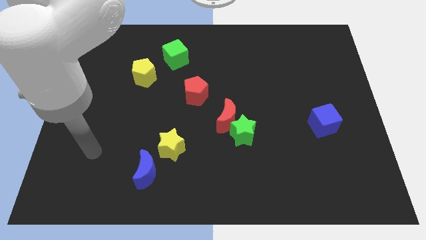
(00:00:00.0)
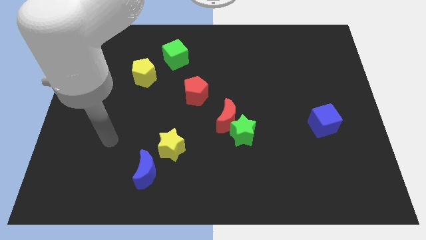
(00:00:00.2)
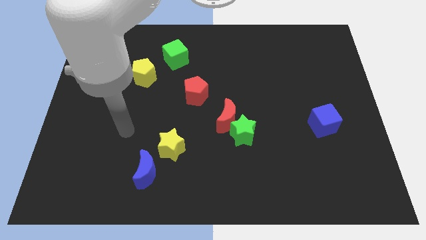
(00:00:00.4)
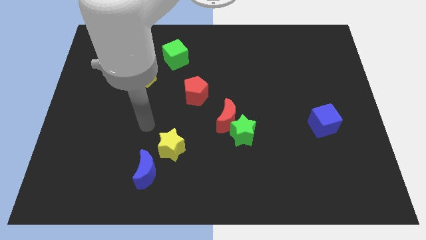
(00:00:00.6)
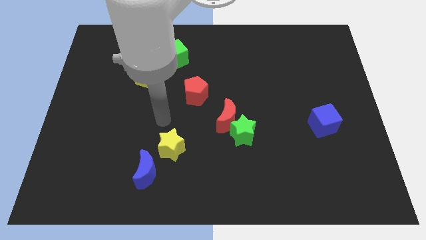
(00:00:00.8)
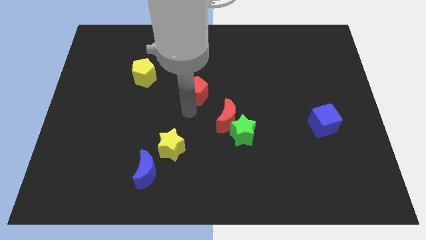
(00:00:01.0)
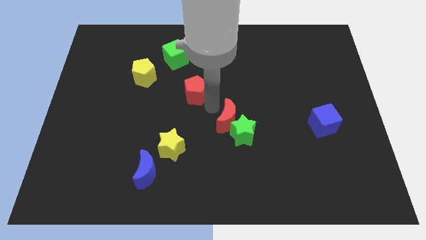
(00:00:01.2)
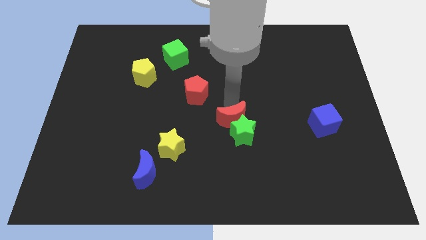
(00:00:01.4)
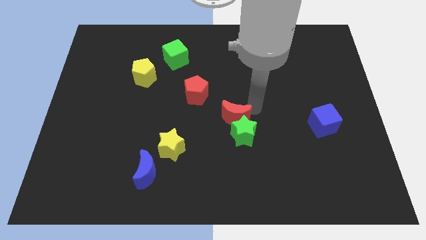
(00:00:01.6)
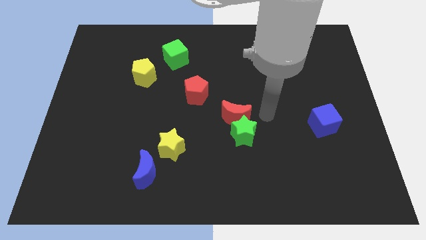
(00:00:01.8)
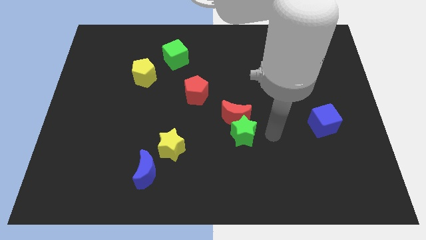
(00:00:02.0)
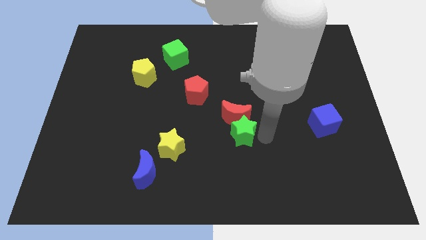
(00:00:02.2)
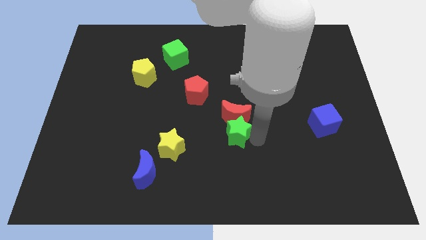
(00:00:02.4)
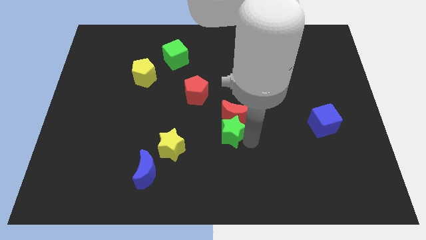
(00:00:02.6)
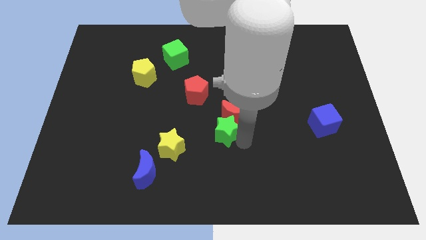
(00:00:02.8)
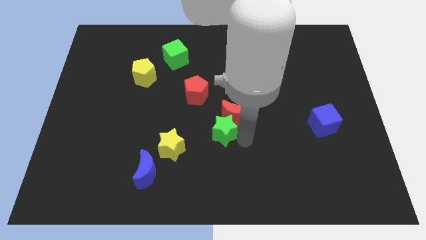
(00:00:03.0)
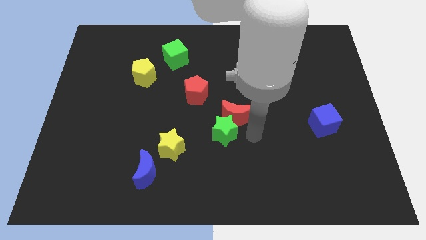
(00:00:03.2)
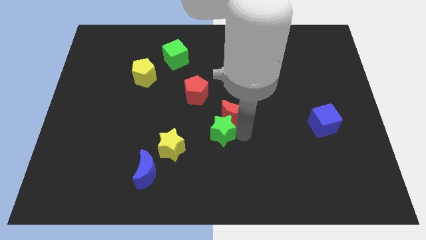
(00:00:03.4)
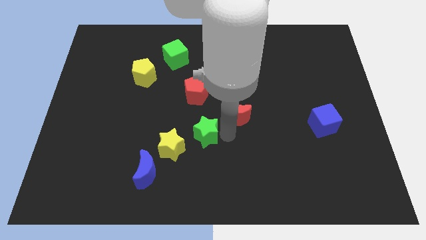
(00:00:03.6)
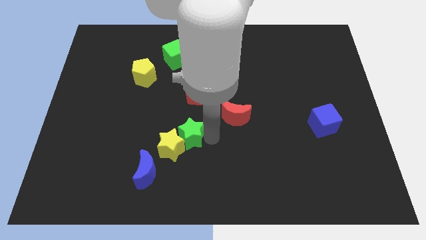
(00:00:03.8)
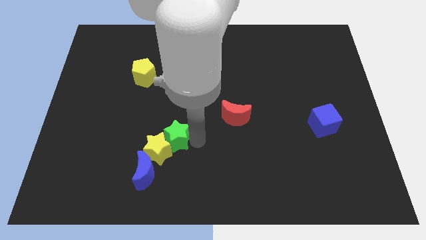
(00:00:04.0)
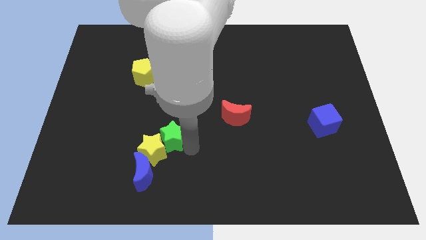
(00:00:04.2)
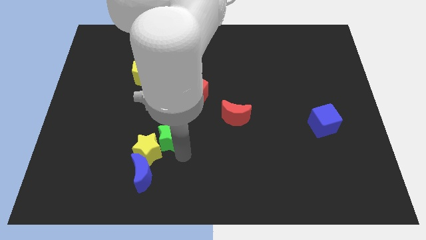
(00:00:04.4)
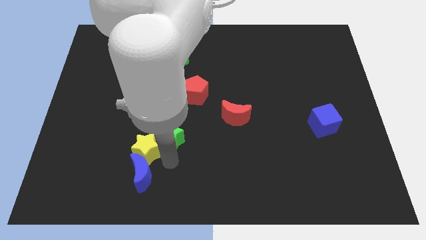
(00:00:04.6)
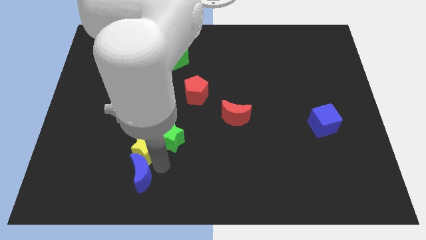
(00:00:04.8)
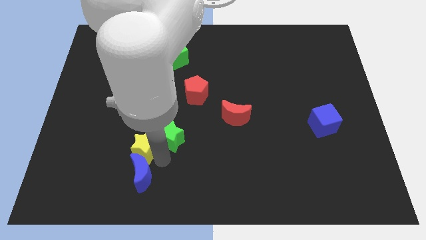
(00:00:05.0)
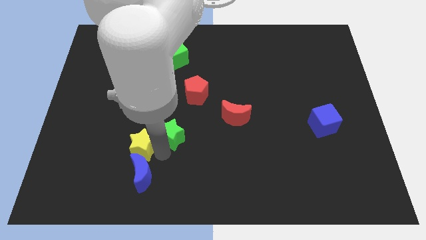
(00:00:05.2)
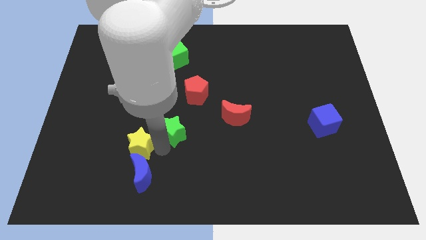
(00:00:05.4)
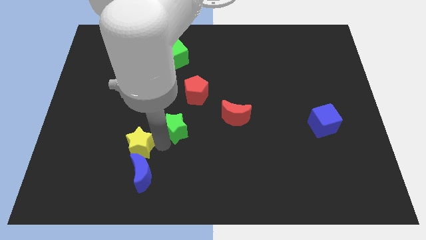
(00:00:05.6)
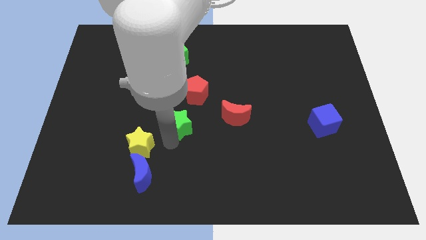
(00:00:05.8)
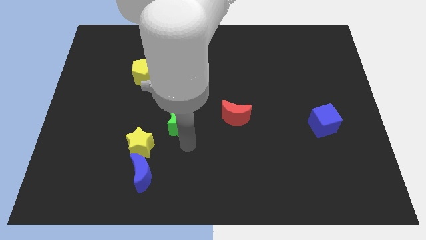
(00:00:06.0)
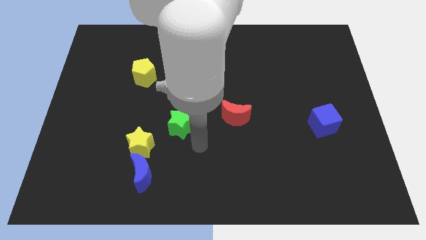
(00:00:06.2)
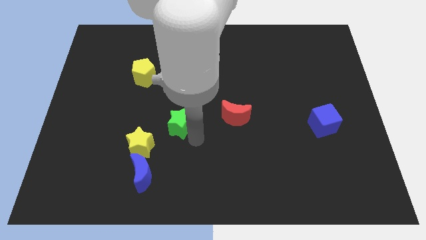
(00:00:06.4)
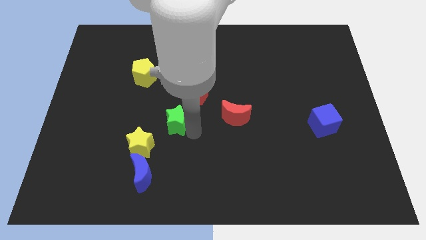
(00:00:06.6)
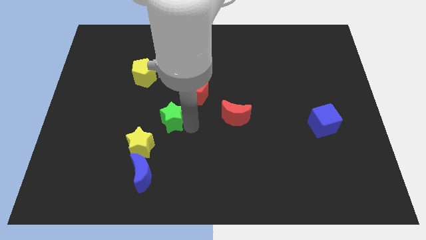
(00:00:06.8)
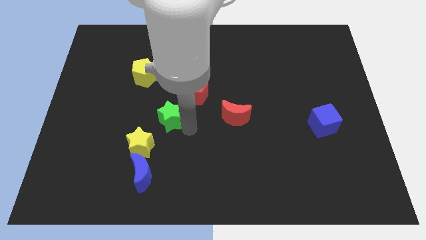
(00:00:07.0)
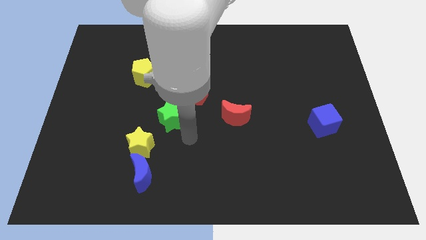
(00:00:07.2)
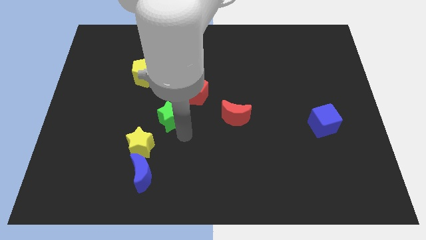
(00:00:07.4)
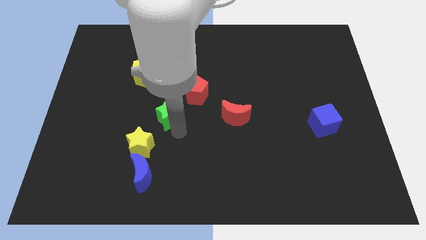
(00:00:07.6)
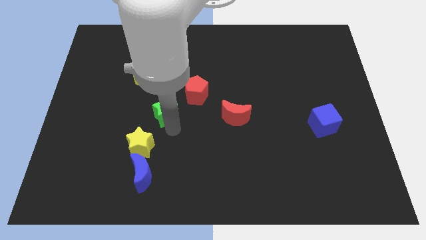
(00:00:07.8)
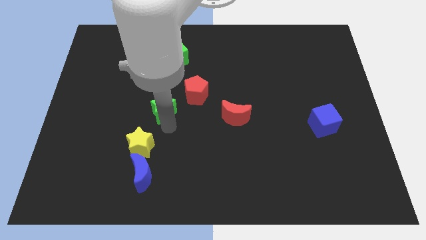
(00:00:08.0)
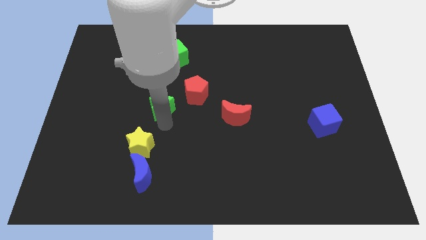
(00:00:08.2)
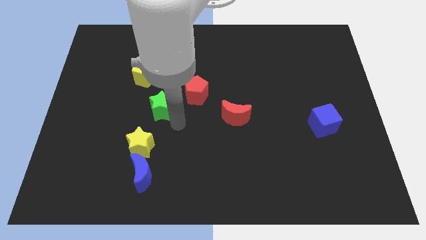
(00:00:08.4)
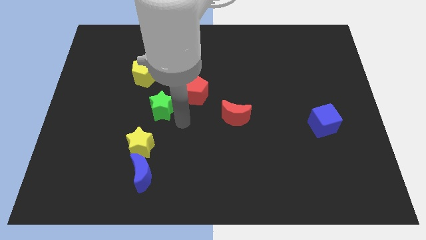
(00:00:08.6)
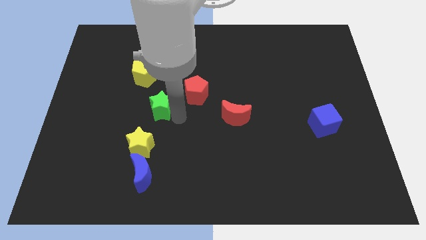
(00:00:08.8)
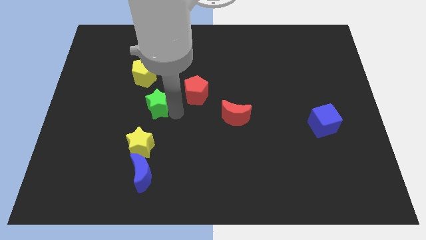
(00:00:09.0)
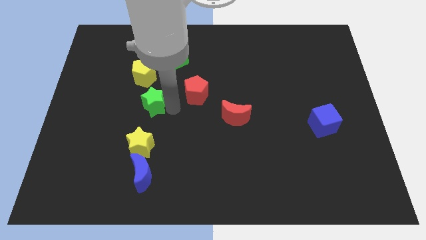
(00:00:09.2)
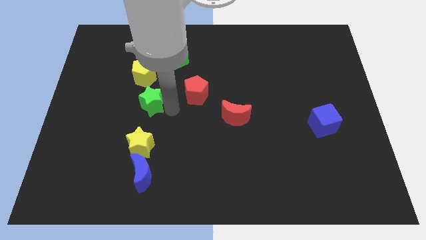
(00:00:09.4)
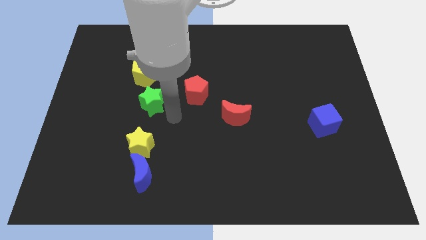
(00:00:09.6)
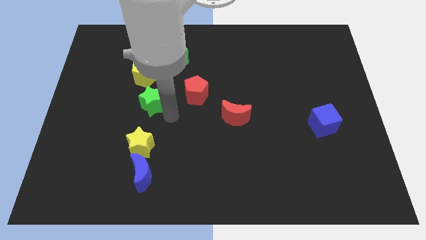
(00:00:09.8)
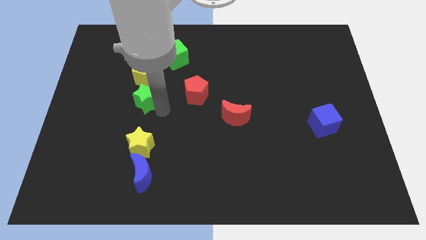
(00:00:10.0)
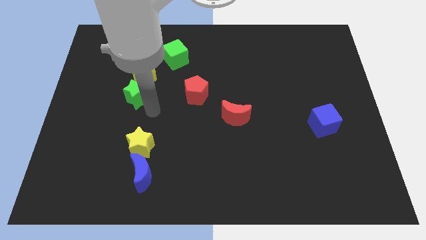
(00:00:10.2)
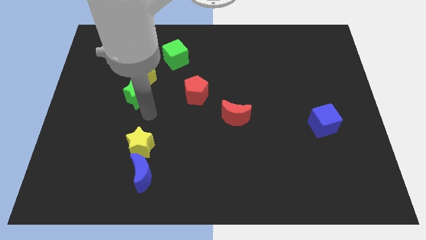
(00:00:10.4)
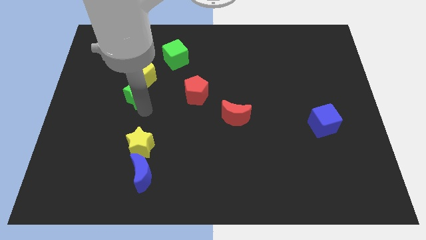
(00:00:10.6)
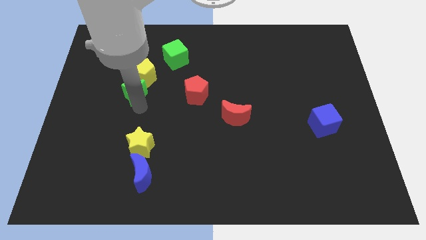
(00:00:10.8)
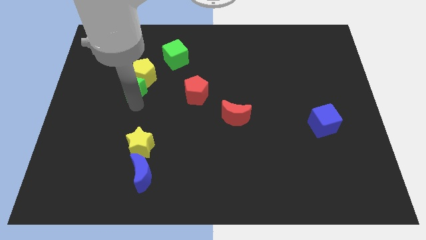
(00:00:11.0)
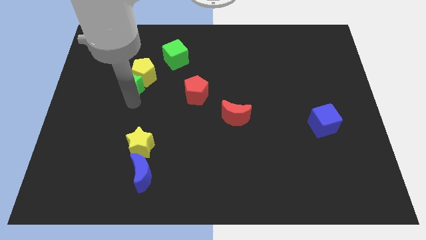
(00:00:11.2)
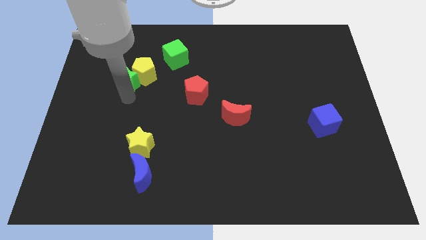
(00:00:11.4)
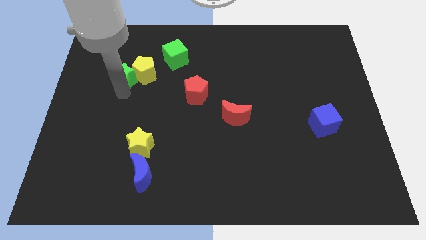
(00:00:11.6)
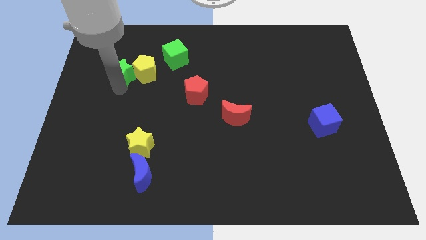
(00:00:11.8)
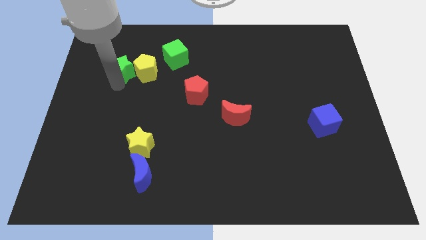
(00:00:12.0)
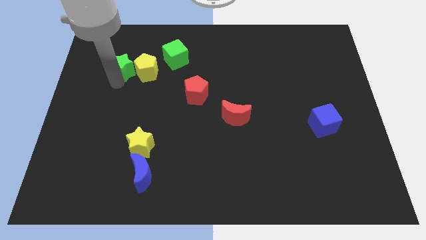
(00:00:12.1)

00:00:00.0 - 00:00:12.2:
push the green star left of the green cube
